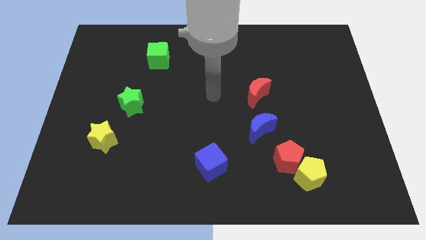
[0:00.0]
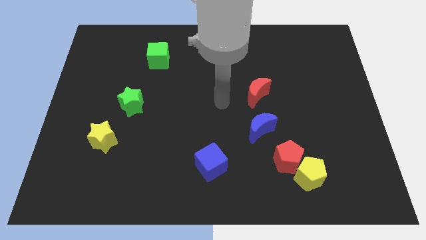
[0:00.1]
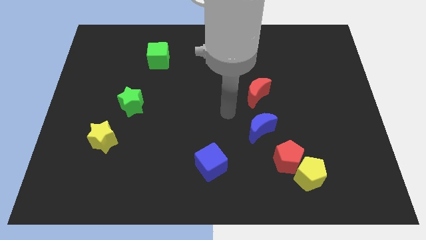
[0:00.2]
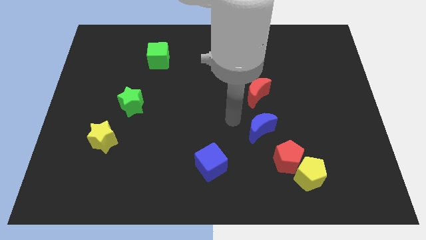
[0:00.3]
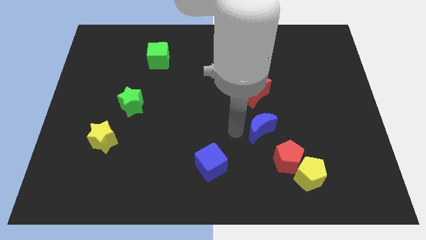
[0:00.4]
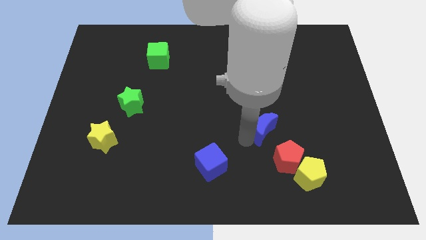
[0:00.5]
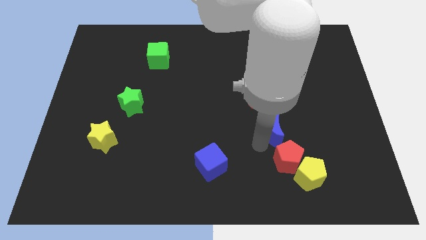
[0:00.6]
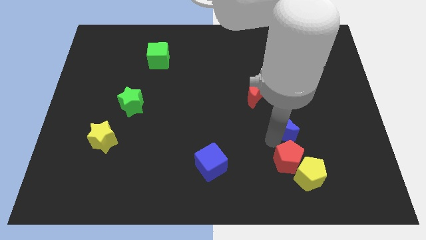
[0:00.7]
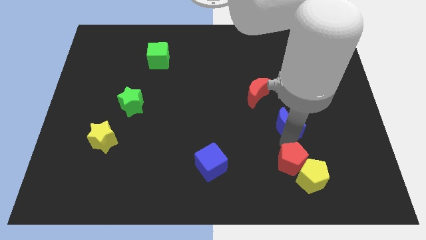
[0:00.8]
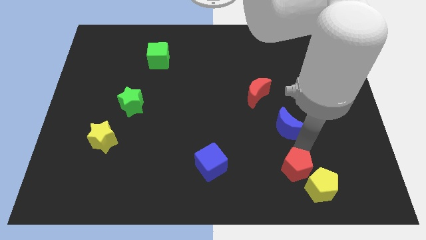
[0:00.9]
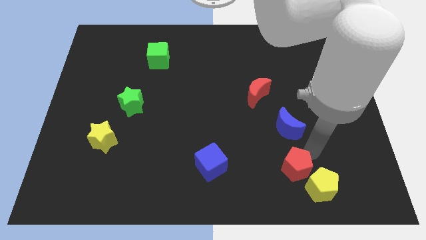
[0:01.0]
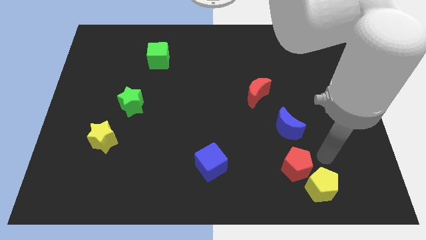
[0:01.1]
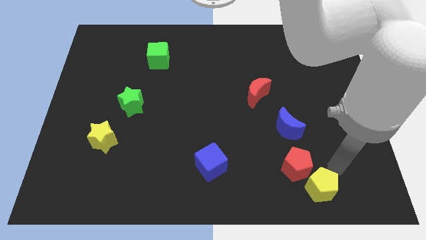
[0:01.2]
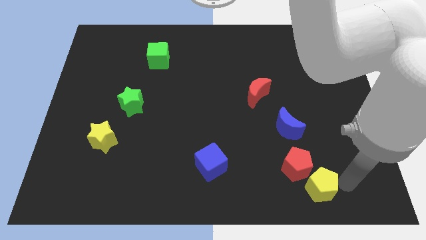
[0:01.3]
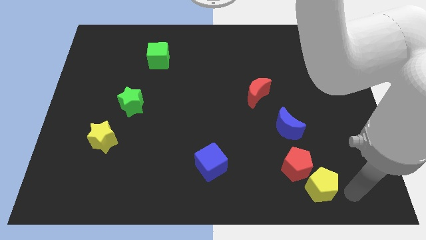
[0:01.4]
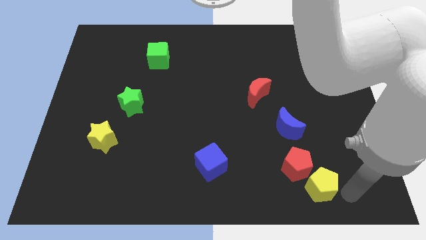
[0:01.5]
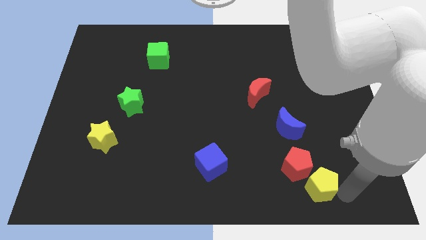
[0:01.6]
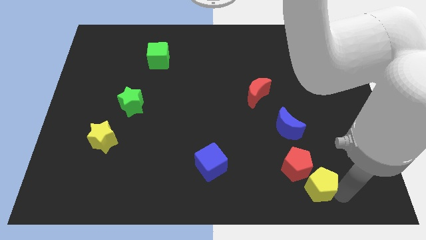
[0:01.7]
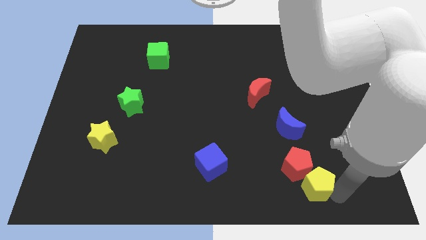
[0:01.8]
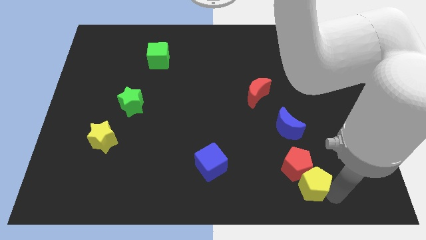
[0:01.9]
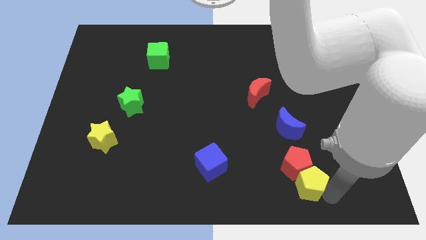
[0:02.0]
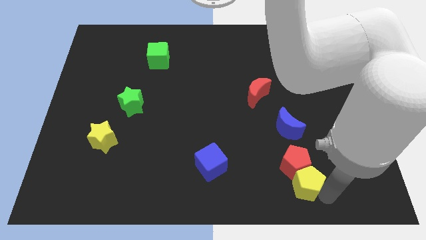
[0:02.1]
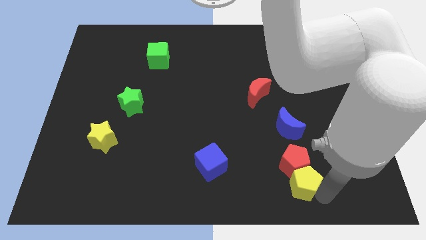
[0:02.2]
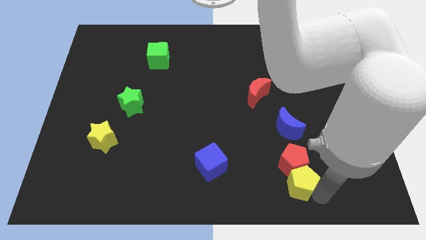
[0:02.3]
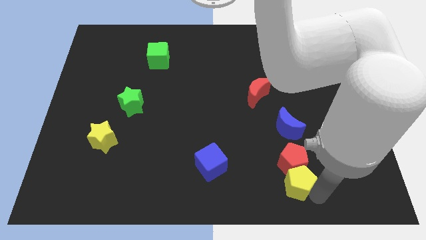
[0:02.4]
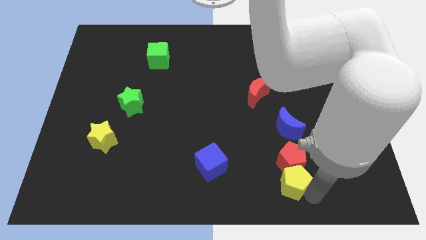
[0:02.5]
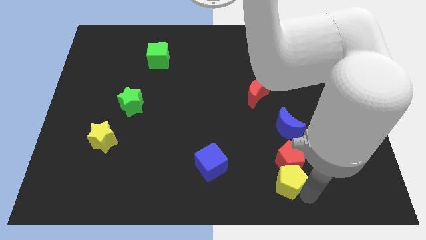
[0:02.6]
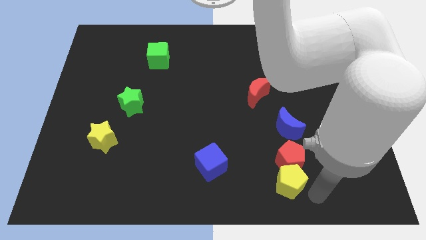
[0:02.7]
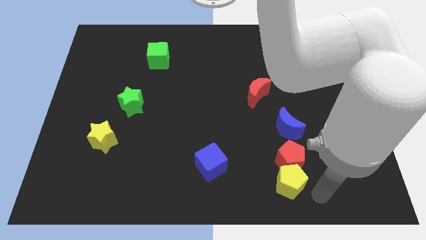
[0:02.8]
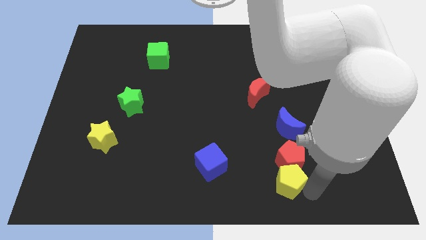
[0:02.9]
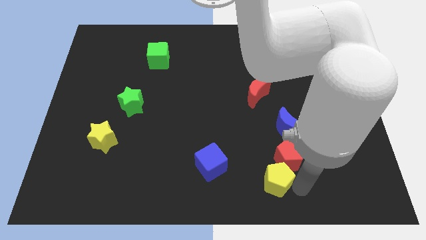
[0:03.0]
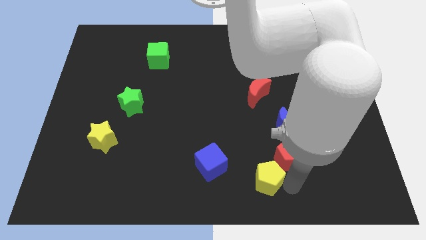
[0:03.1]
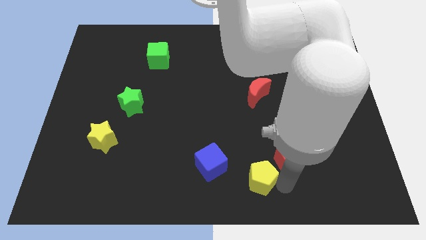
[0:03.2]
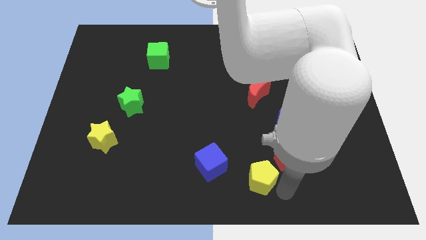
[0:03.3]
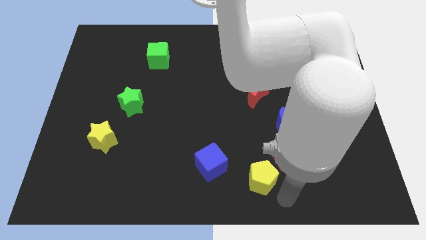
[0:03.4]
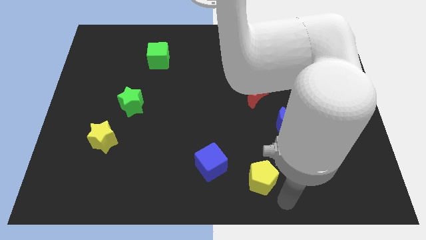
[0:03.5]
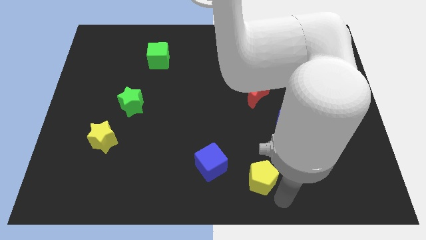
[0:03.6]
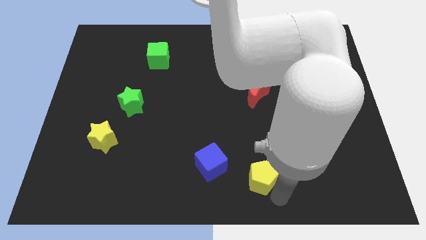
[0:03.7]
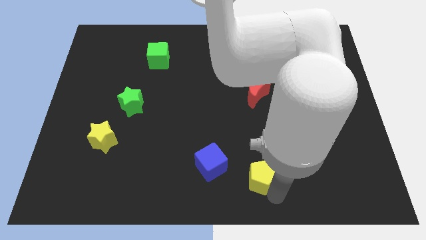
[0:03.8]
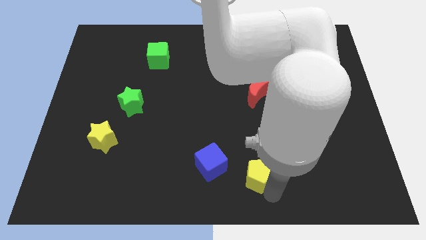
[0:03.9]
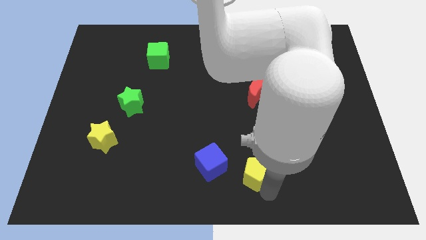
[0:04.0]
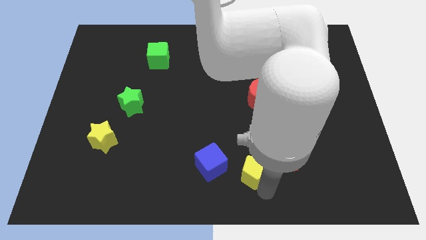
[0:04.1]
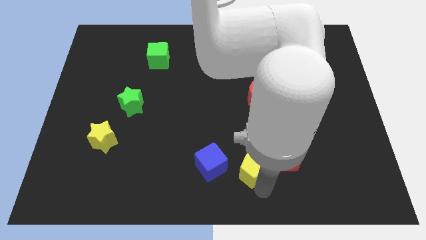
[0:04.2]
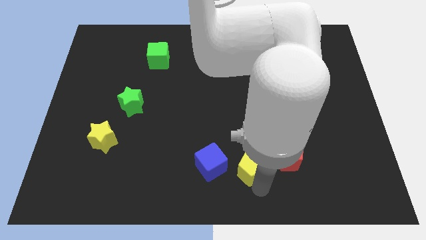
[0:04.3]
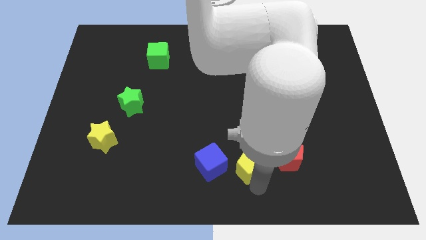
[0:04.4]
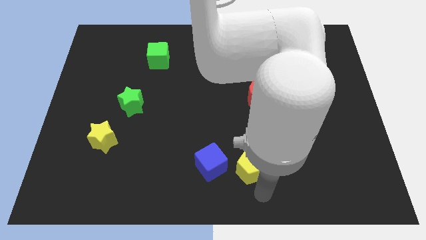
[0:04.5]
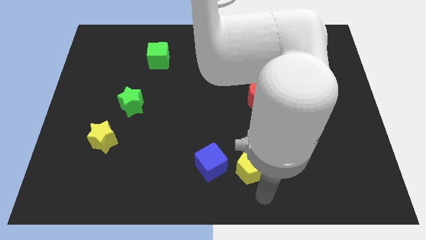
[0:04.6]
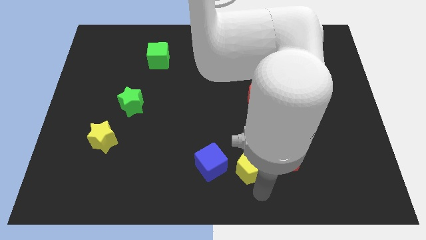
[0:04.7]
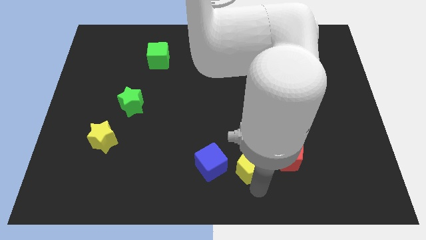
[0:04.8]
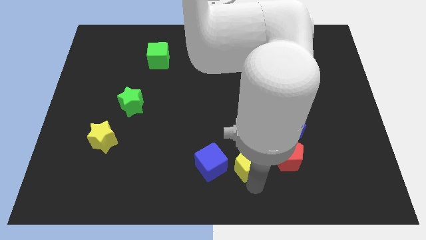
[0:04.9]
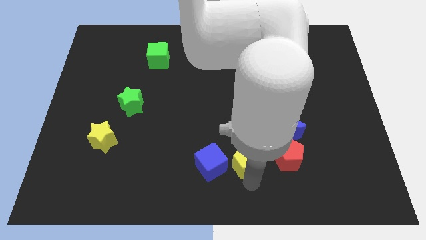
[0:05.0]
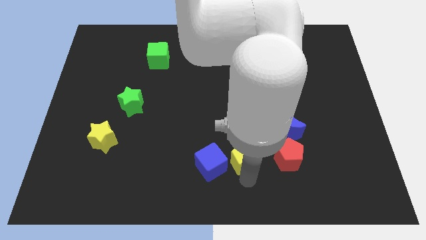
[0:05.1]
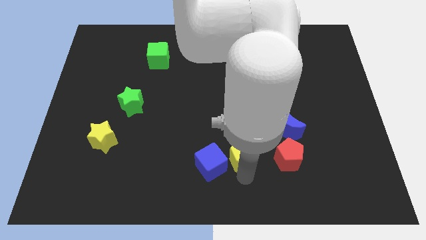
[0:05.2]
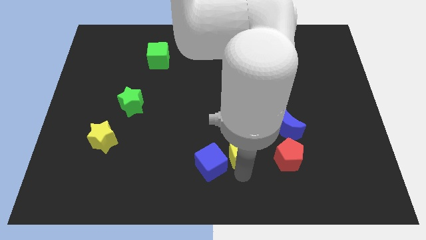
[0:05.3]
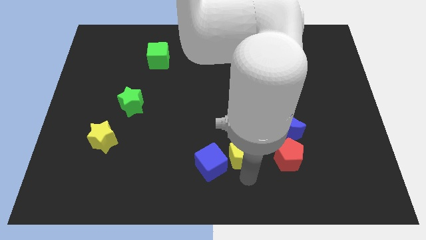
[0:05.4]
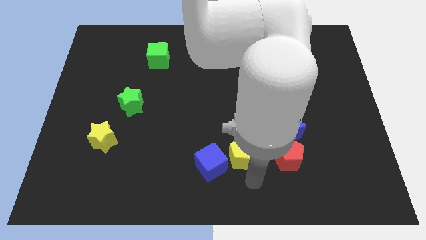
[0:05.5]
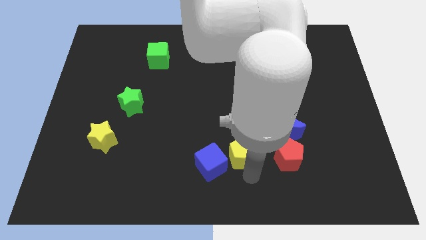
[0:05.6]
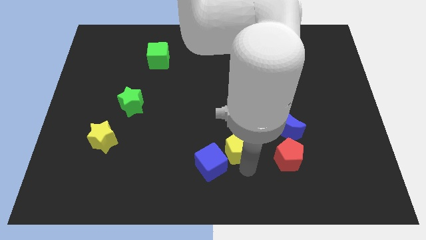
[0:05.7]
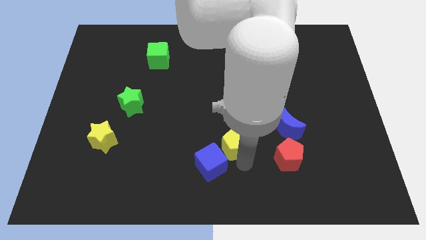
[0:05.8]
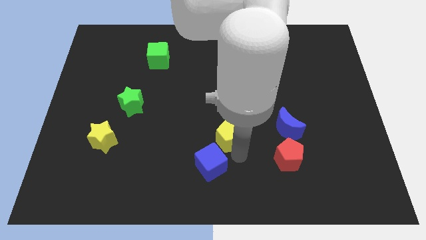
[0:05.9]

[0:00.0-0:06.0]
push the yellow pentagon to the center of the board

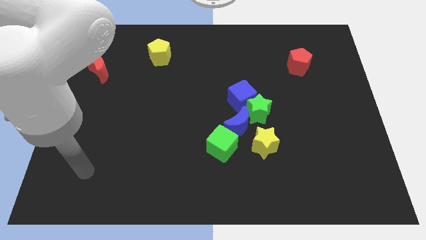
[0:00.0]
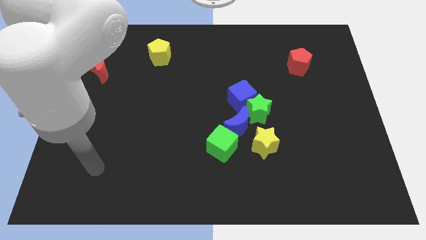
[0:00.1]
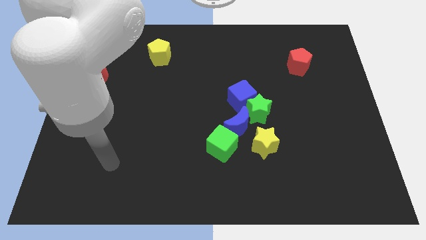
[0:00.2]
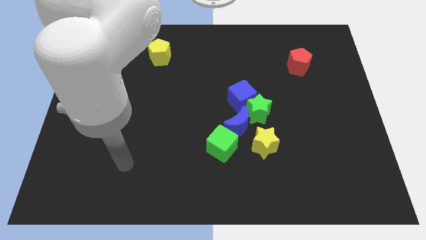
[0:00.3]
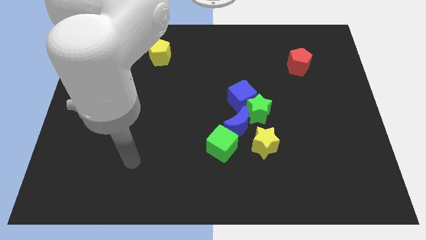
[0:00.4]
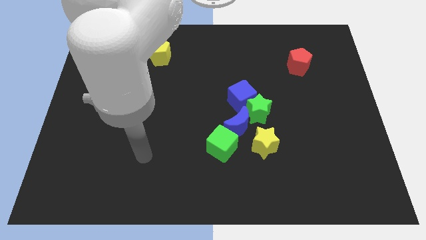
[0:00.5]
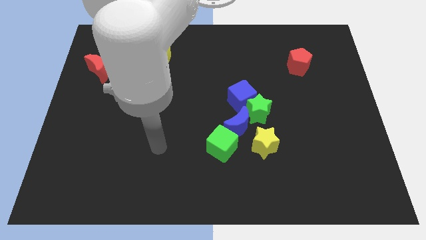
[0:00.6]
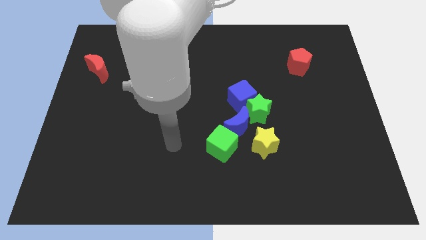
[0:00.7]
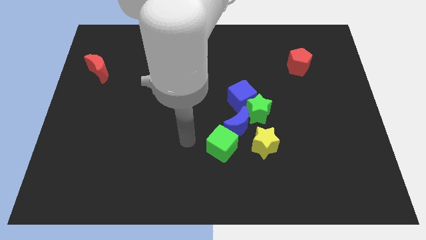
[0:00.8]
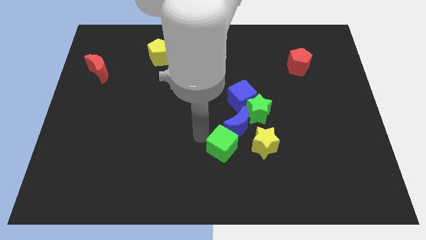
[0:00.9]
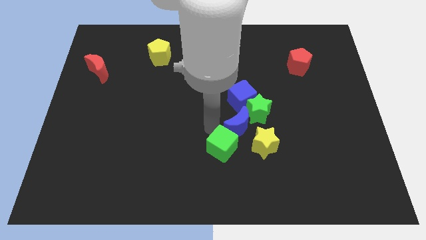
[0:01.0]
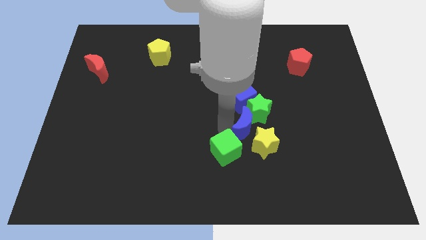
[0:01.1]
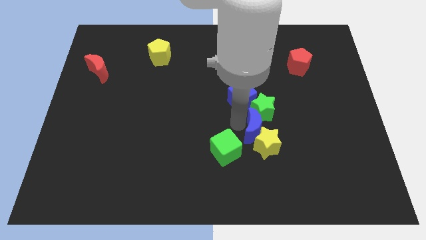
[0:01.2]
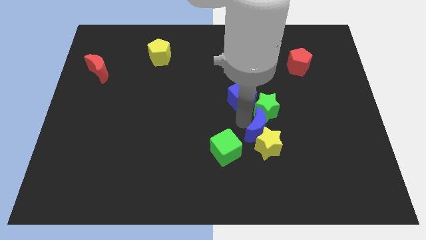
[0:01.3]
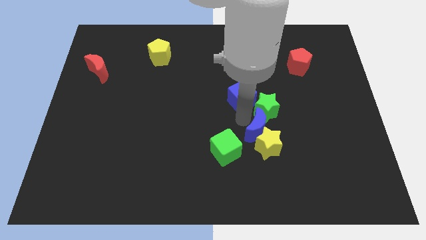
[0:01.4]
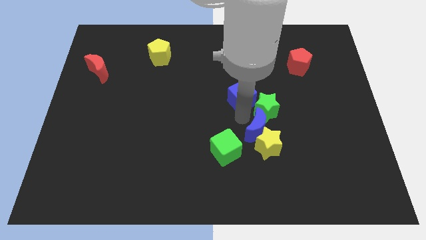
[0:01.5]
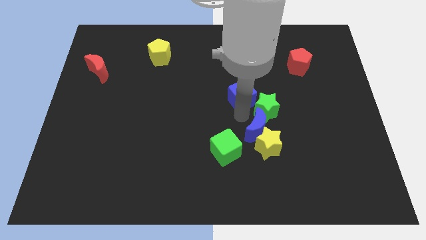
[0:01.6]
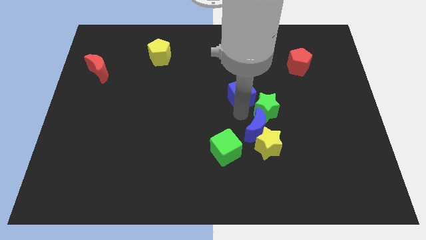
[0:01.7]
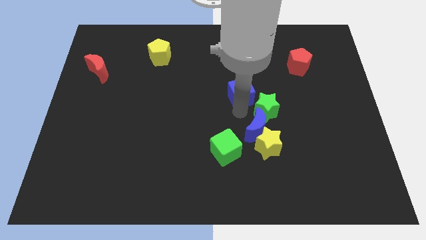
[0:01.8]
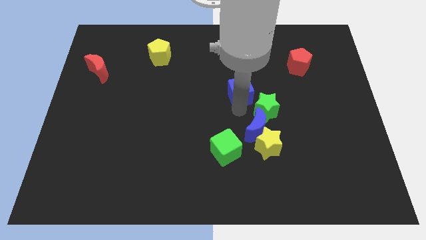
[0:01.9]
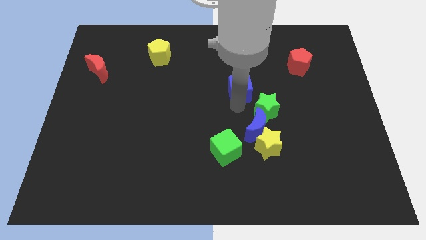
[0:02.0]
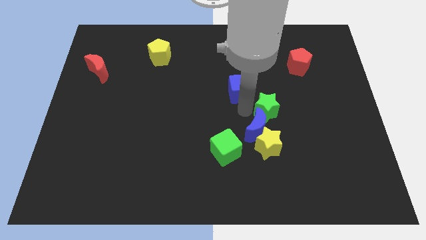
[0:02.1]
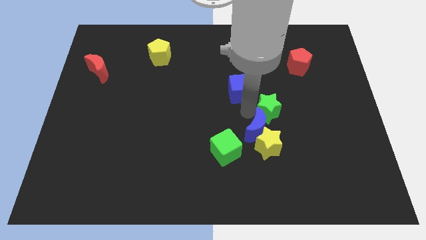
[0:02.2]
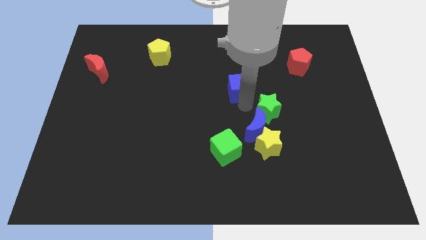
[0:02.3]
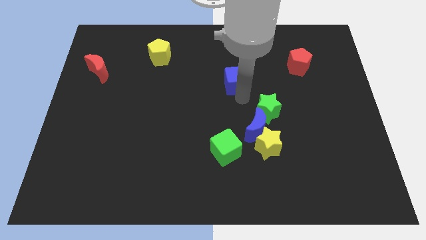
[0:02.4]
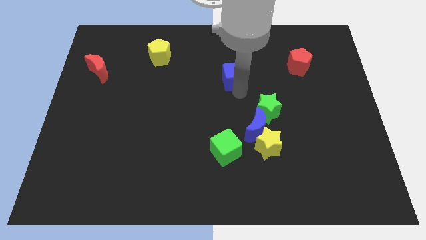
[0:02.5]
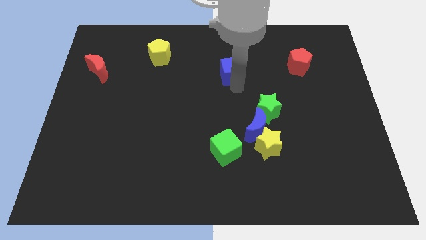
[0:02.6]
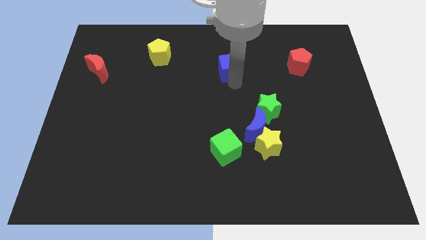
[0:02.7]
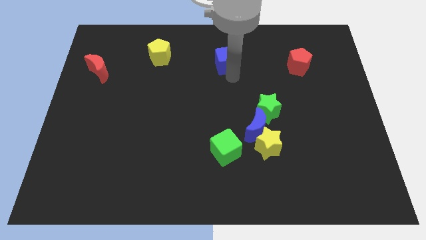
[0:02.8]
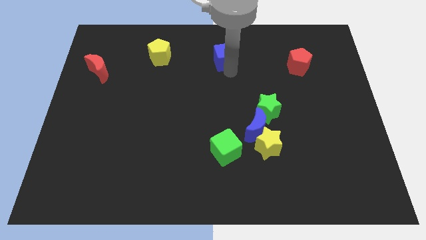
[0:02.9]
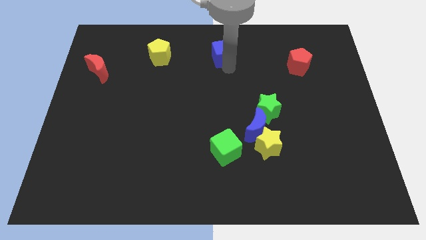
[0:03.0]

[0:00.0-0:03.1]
put the blue cube to the top
